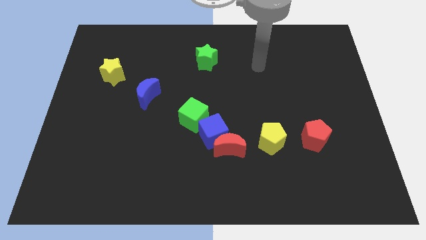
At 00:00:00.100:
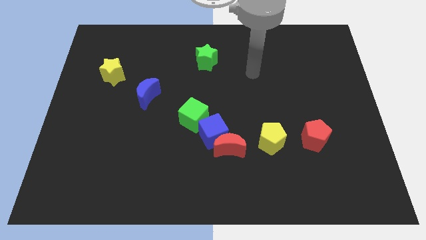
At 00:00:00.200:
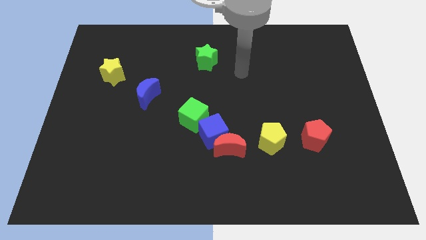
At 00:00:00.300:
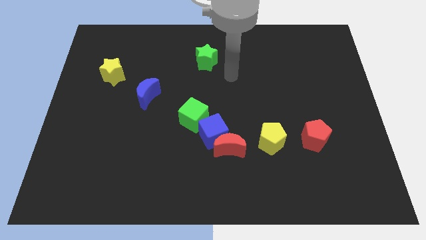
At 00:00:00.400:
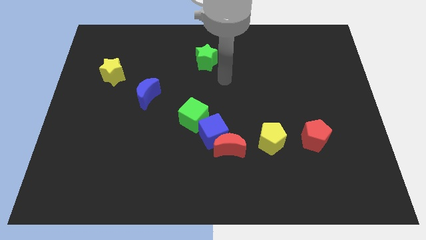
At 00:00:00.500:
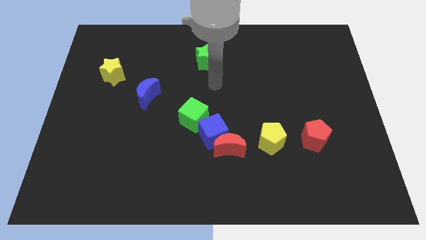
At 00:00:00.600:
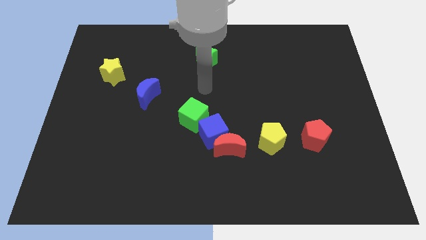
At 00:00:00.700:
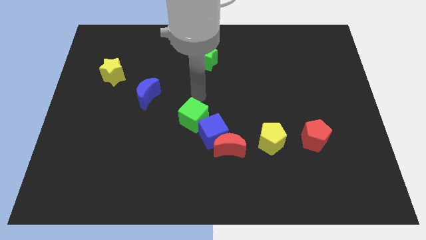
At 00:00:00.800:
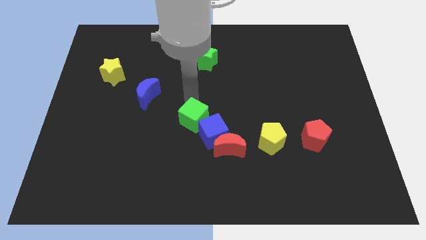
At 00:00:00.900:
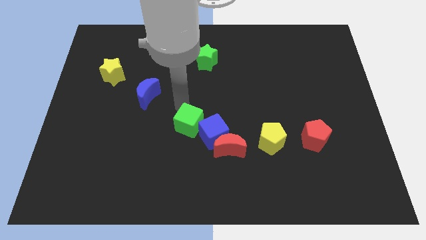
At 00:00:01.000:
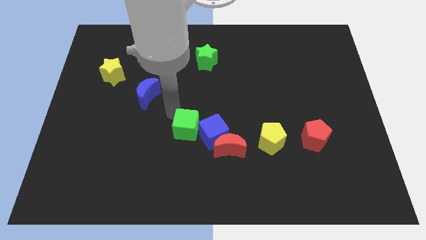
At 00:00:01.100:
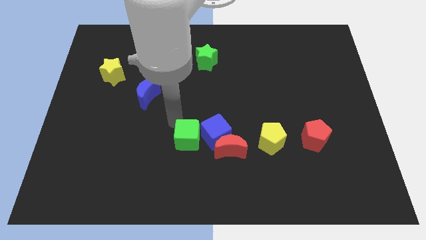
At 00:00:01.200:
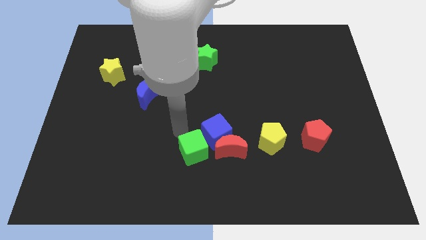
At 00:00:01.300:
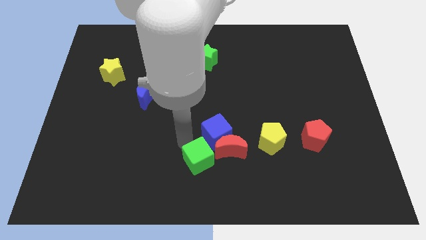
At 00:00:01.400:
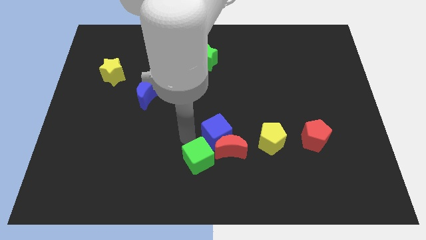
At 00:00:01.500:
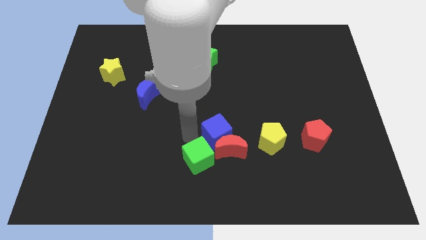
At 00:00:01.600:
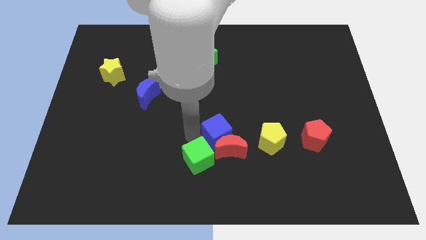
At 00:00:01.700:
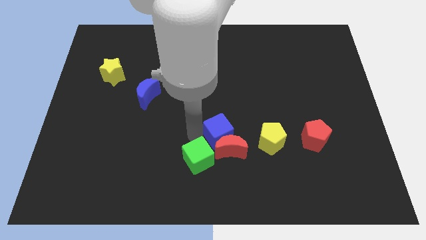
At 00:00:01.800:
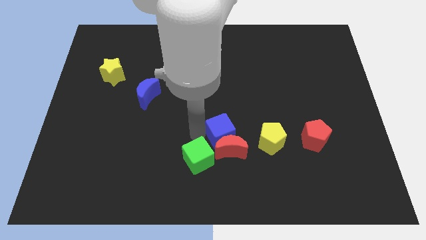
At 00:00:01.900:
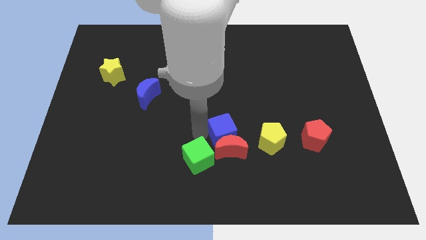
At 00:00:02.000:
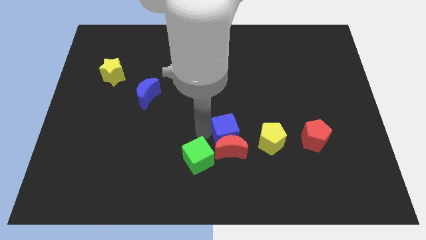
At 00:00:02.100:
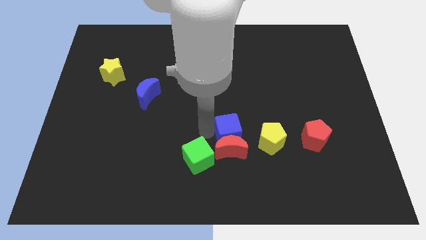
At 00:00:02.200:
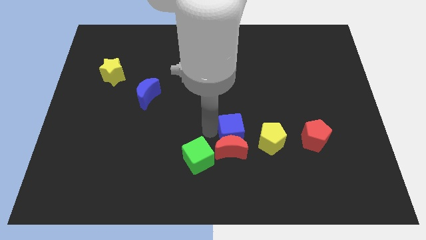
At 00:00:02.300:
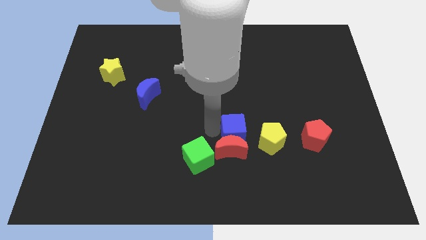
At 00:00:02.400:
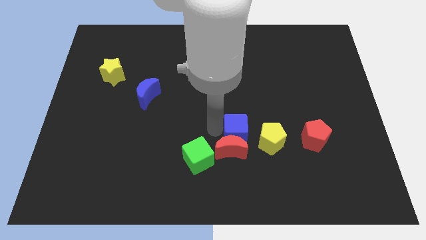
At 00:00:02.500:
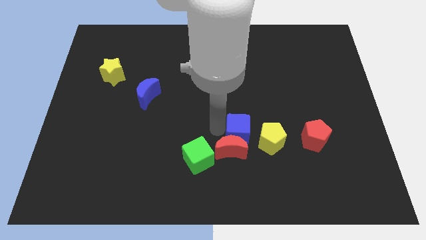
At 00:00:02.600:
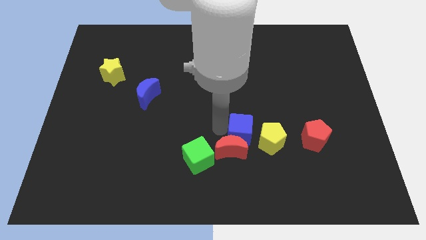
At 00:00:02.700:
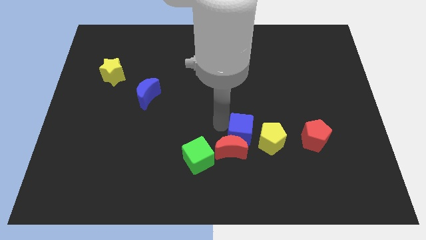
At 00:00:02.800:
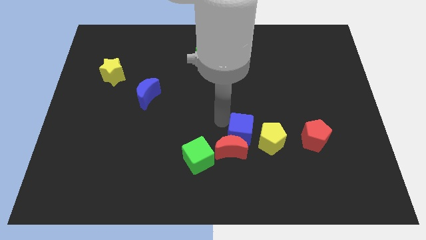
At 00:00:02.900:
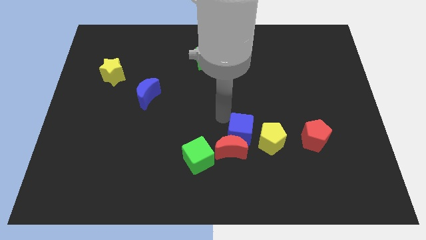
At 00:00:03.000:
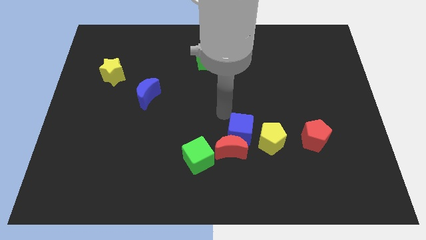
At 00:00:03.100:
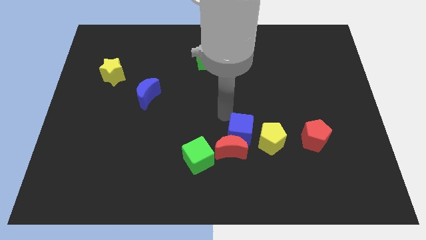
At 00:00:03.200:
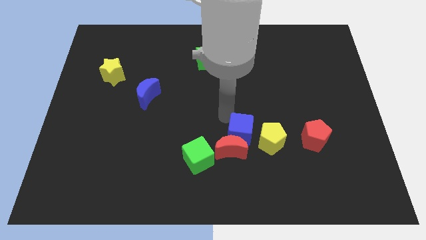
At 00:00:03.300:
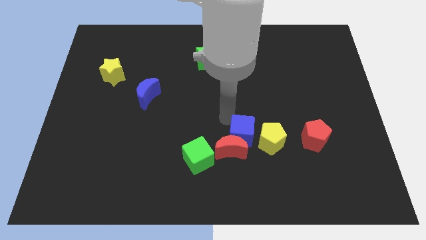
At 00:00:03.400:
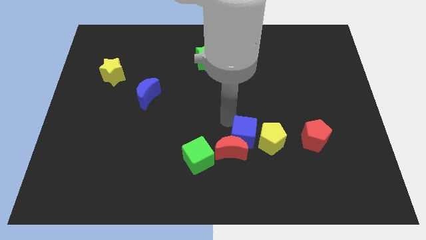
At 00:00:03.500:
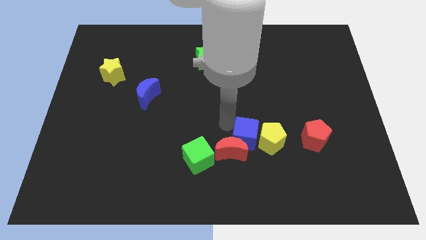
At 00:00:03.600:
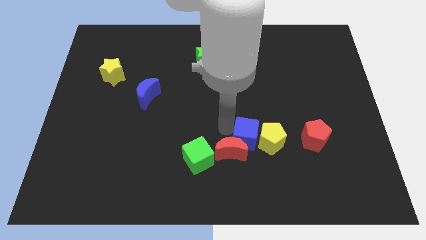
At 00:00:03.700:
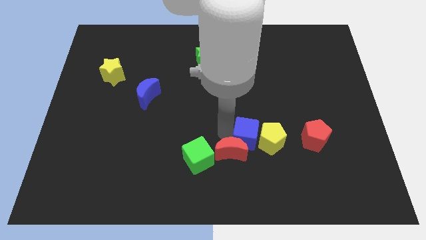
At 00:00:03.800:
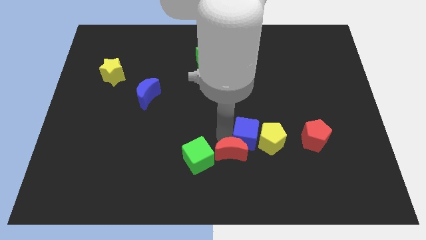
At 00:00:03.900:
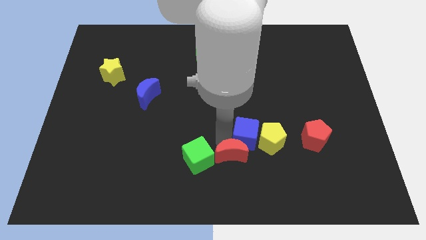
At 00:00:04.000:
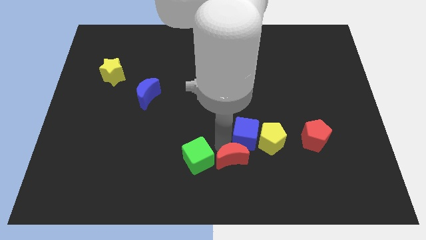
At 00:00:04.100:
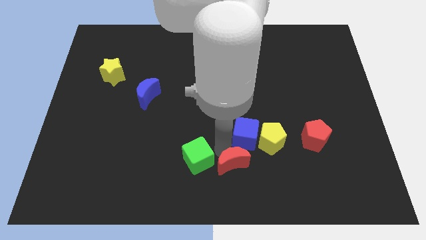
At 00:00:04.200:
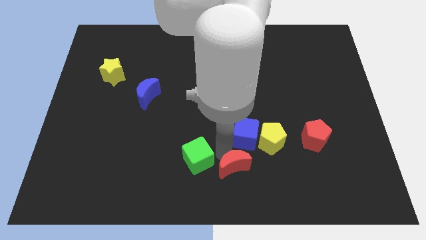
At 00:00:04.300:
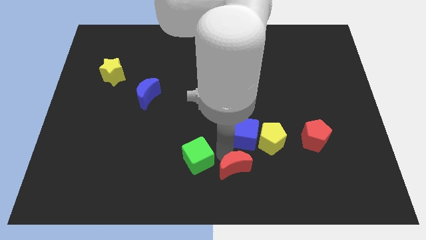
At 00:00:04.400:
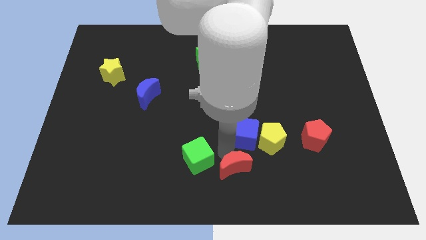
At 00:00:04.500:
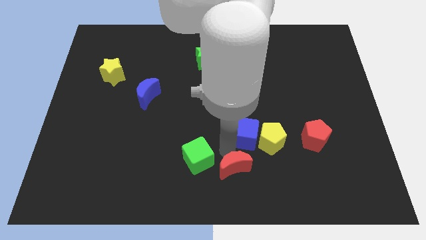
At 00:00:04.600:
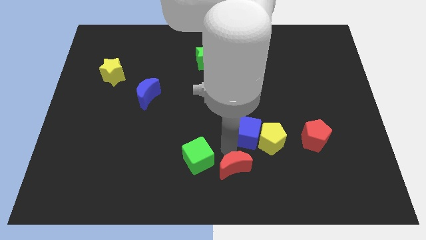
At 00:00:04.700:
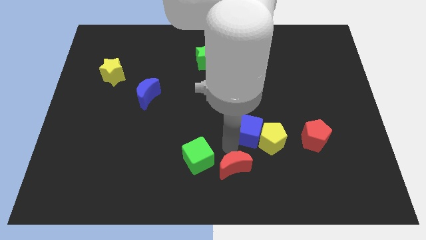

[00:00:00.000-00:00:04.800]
move the blue cube away from the red moon and green cube

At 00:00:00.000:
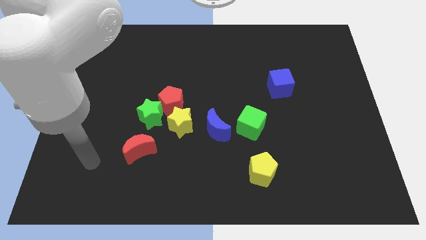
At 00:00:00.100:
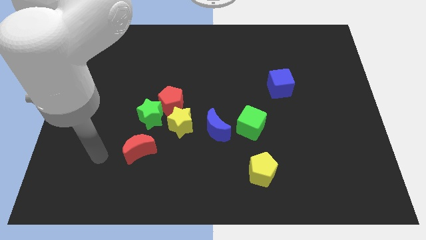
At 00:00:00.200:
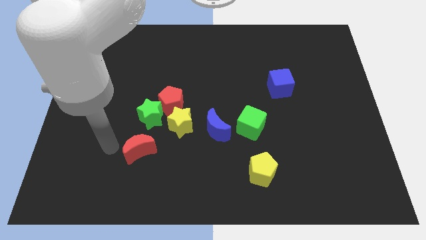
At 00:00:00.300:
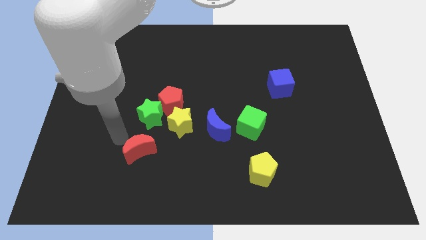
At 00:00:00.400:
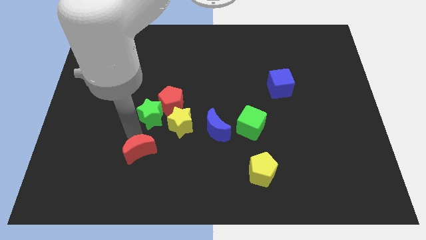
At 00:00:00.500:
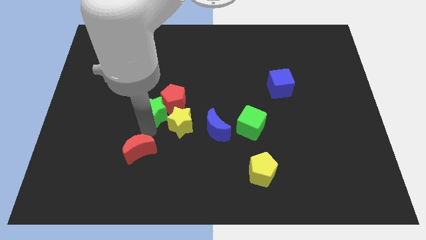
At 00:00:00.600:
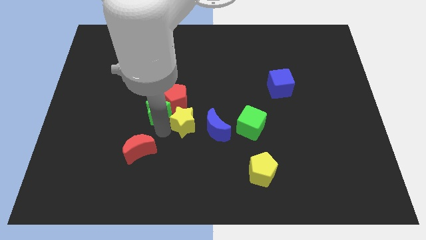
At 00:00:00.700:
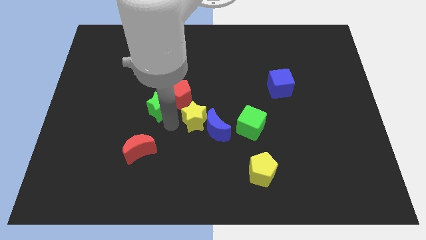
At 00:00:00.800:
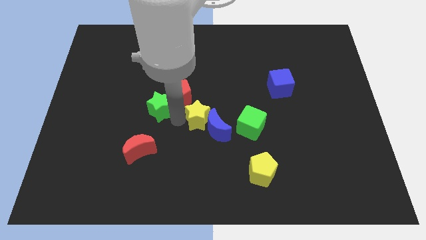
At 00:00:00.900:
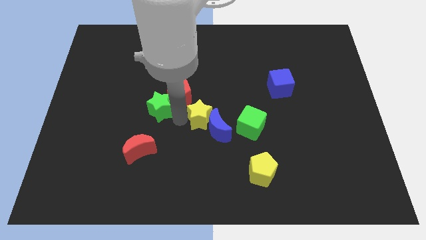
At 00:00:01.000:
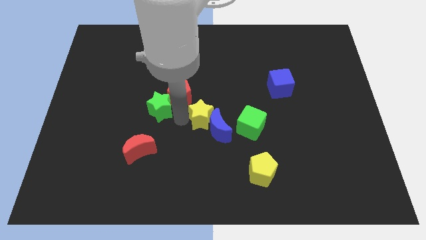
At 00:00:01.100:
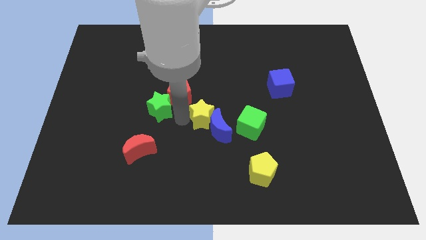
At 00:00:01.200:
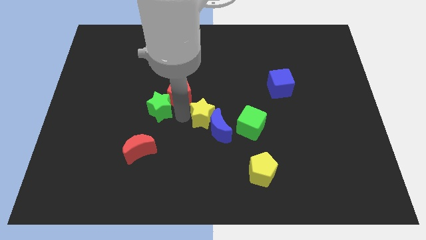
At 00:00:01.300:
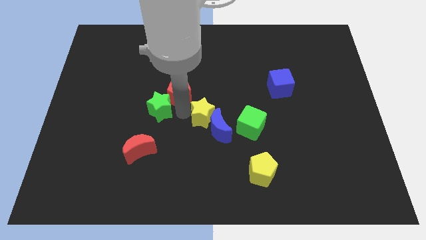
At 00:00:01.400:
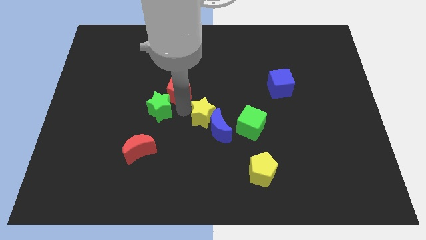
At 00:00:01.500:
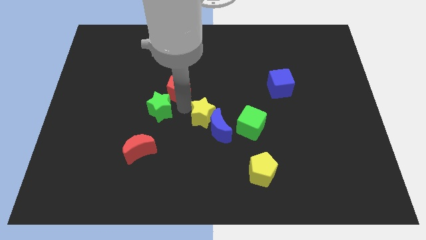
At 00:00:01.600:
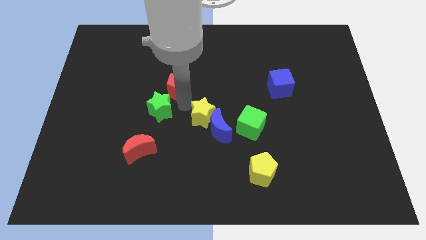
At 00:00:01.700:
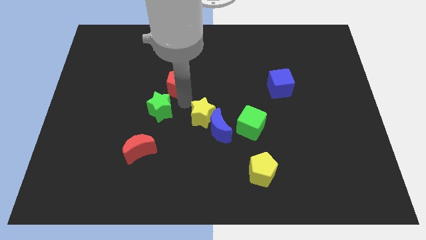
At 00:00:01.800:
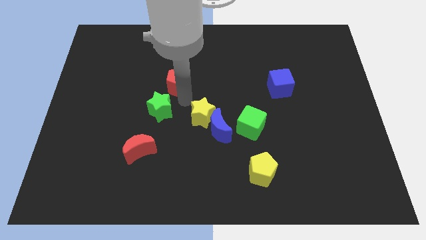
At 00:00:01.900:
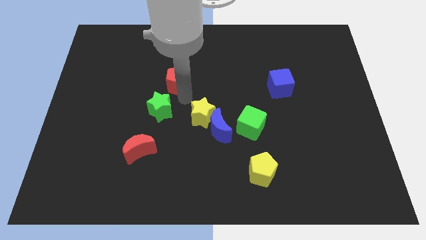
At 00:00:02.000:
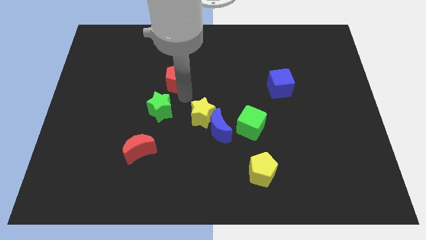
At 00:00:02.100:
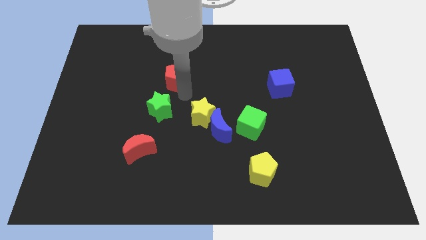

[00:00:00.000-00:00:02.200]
separate the red pentagon from the green star and yellow star

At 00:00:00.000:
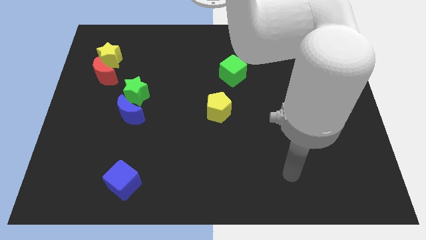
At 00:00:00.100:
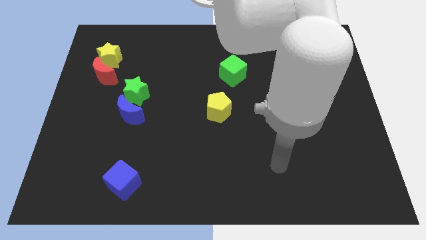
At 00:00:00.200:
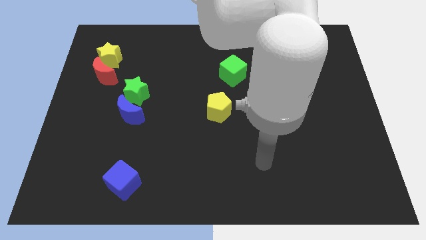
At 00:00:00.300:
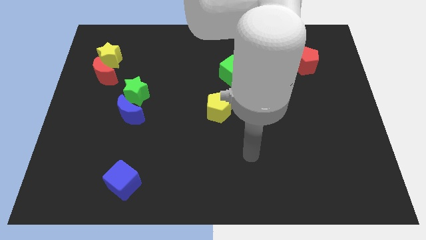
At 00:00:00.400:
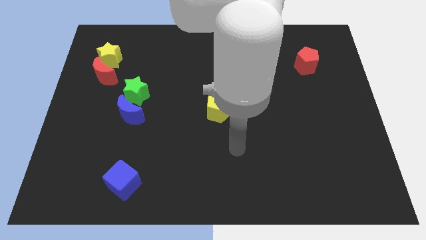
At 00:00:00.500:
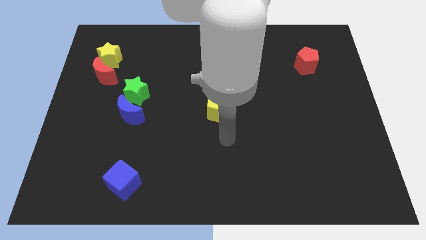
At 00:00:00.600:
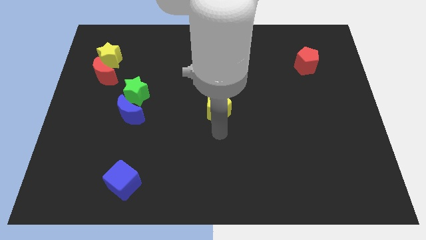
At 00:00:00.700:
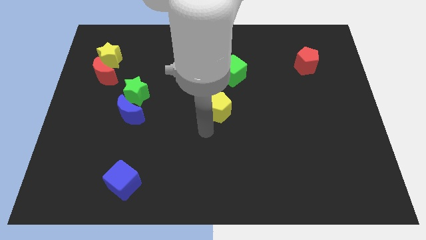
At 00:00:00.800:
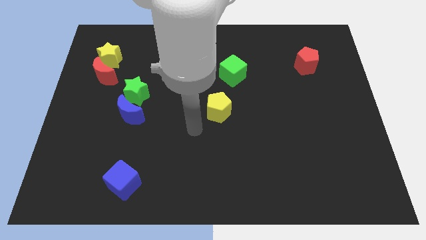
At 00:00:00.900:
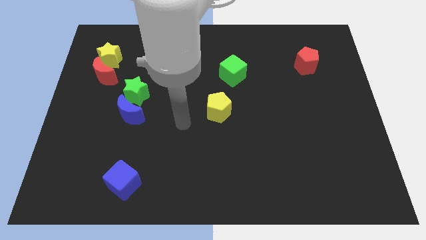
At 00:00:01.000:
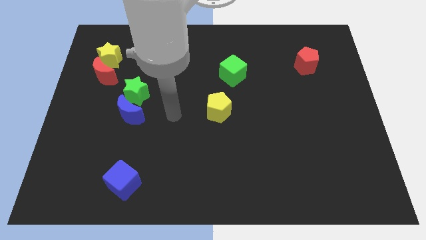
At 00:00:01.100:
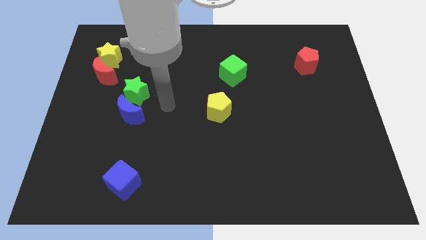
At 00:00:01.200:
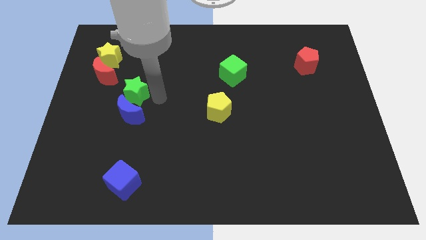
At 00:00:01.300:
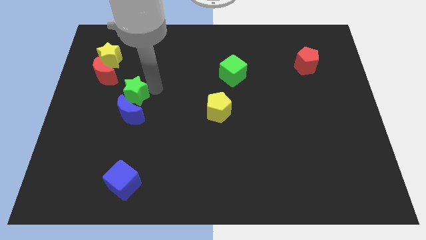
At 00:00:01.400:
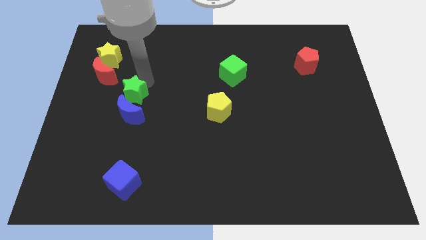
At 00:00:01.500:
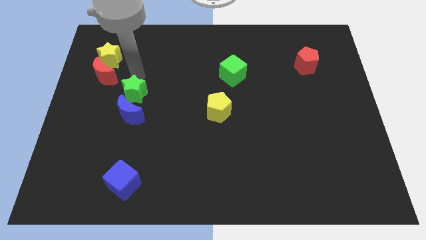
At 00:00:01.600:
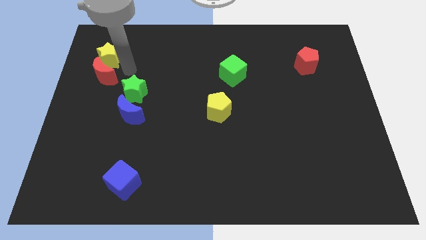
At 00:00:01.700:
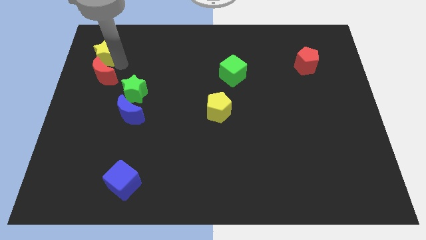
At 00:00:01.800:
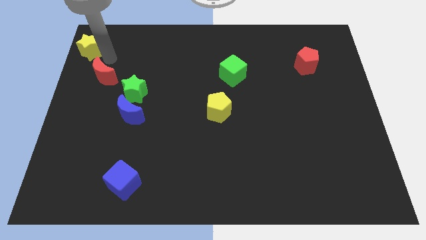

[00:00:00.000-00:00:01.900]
move the red moon away from the yellow star

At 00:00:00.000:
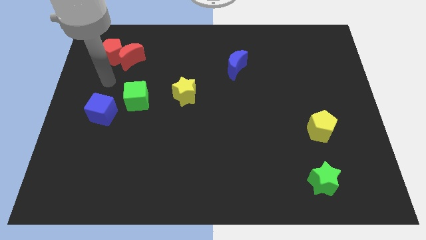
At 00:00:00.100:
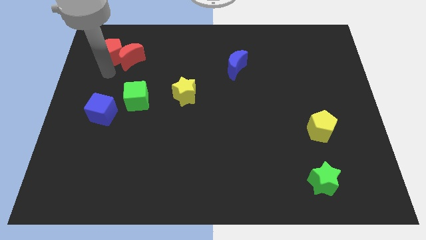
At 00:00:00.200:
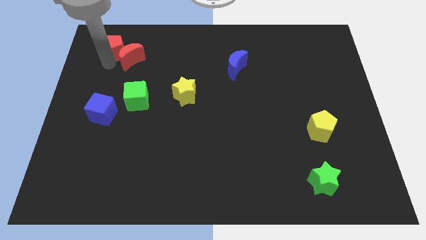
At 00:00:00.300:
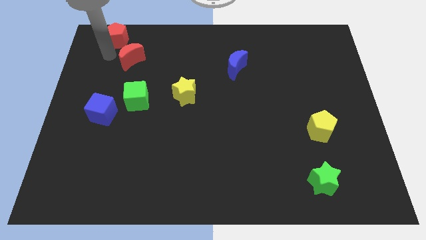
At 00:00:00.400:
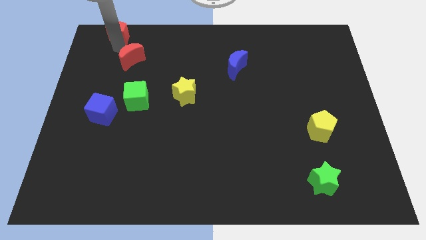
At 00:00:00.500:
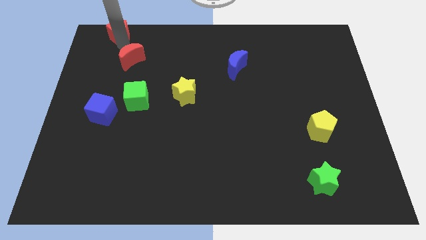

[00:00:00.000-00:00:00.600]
move the red moon away from the red pentagon
